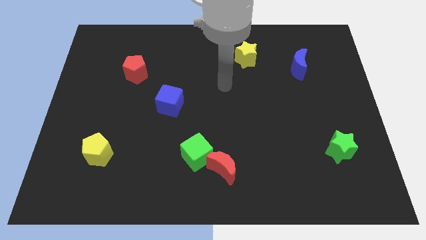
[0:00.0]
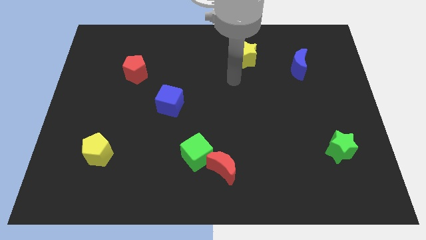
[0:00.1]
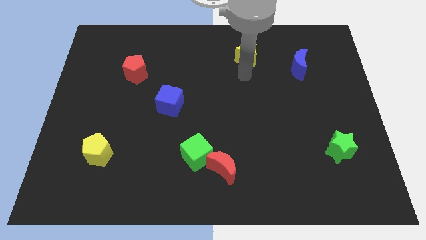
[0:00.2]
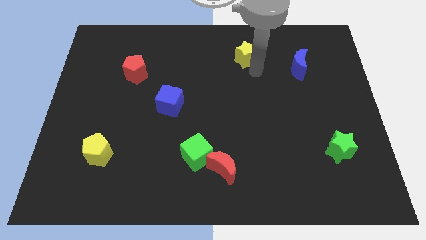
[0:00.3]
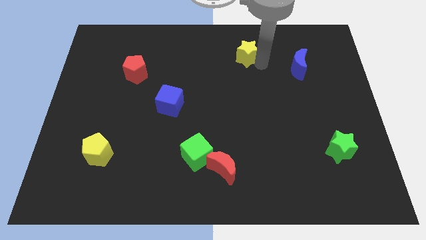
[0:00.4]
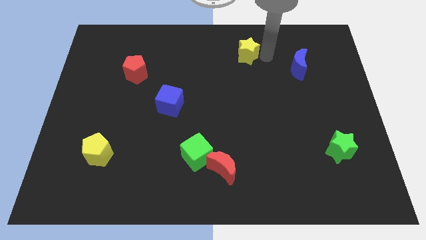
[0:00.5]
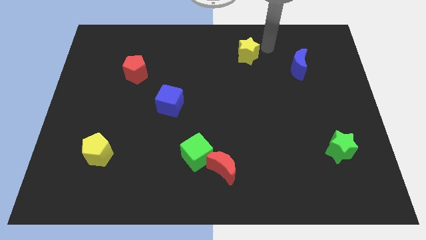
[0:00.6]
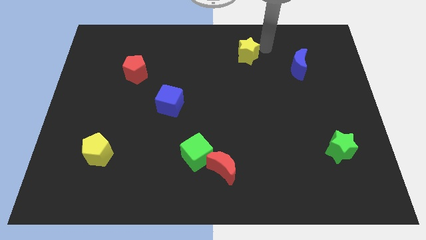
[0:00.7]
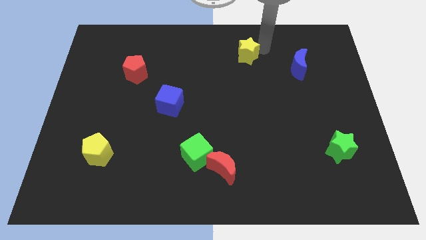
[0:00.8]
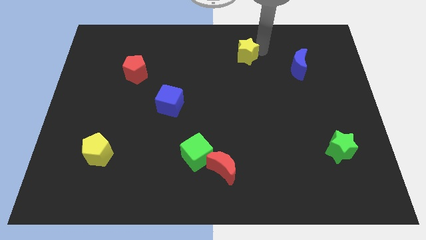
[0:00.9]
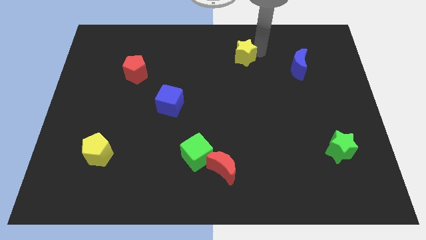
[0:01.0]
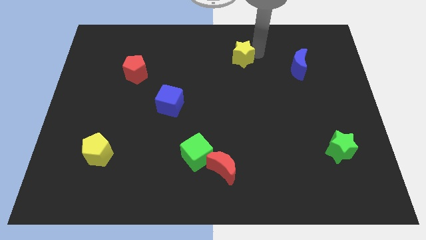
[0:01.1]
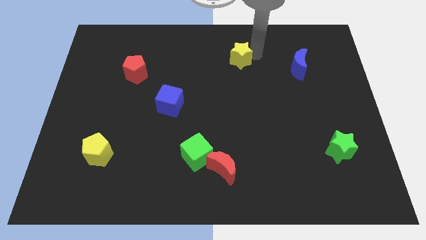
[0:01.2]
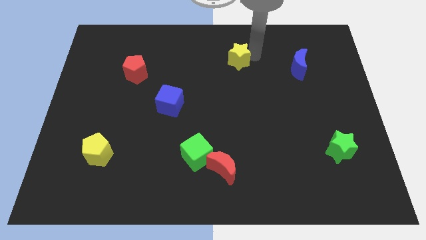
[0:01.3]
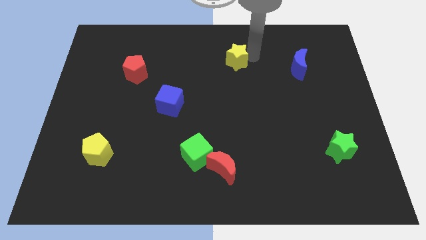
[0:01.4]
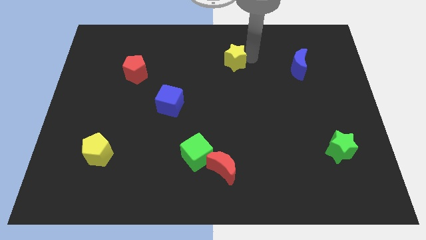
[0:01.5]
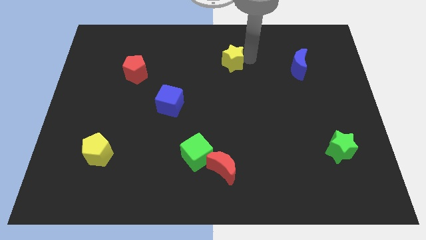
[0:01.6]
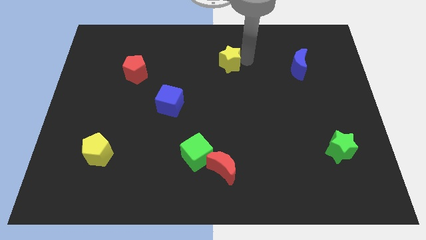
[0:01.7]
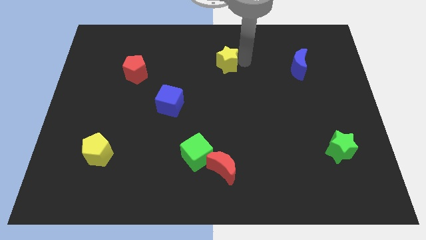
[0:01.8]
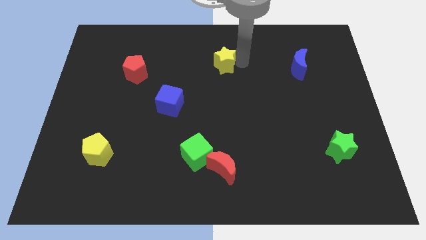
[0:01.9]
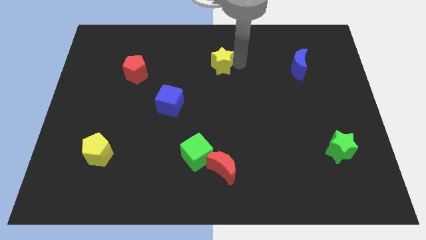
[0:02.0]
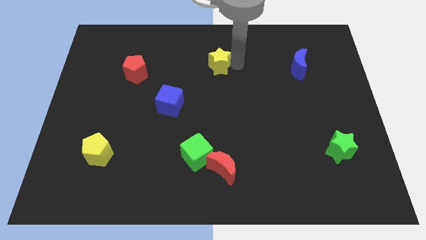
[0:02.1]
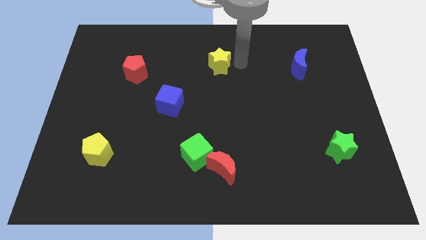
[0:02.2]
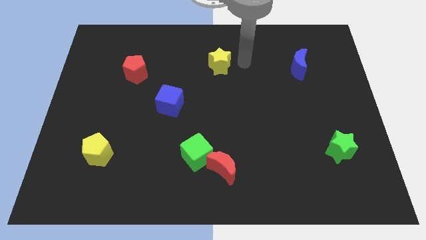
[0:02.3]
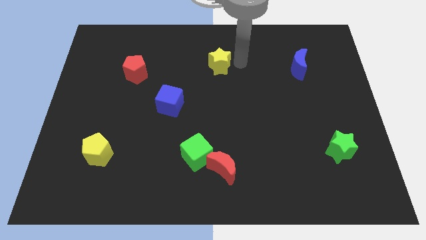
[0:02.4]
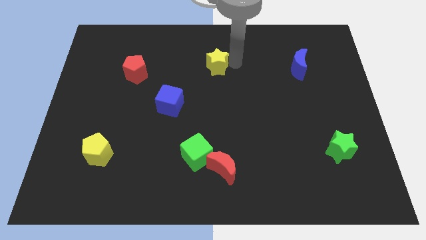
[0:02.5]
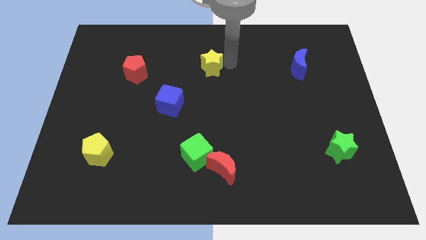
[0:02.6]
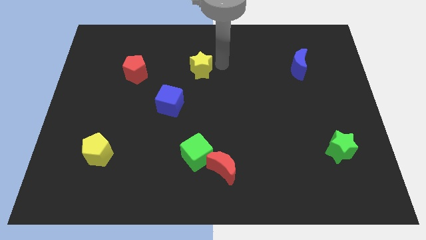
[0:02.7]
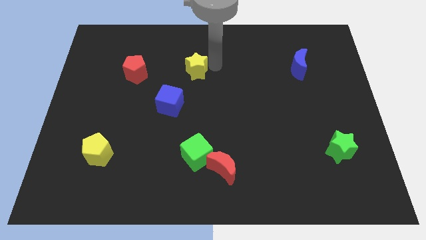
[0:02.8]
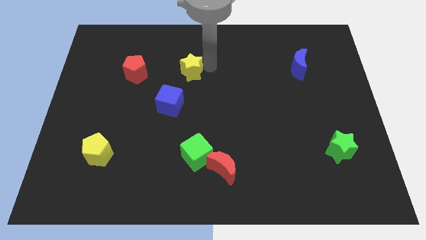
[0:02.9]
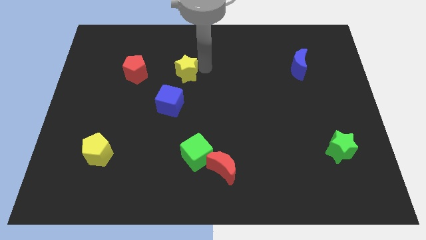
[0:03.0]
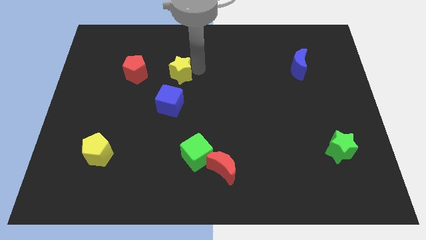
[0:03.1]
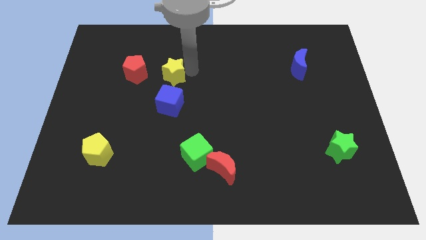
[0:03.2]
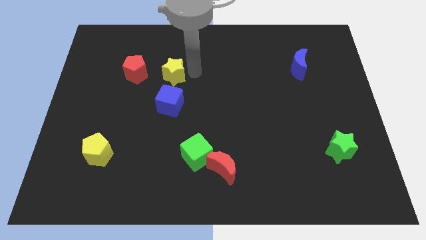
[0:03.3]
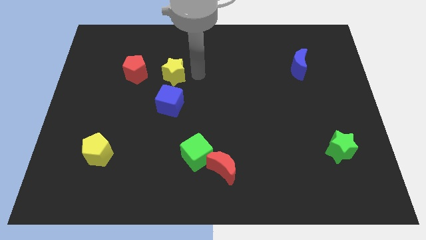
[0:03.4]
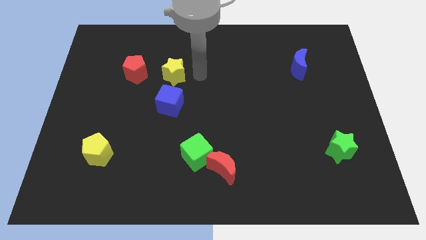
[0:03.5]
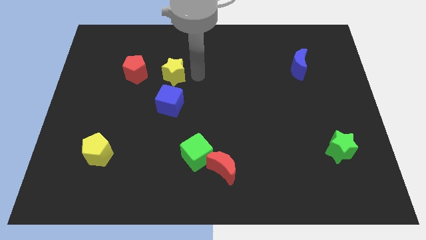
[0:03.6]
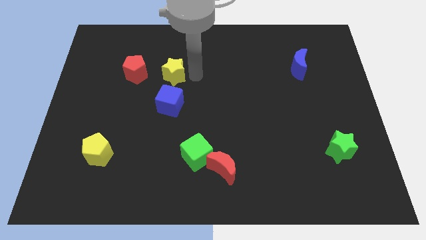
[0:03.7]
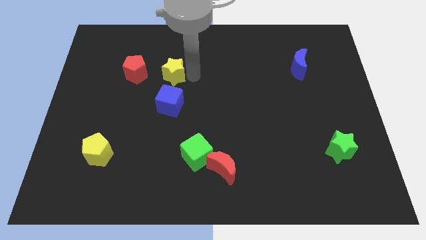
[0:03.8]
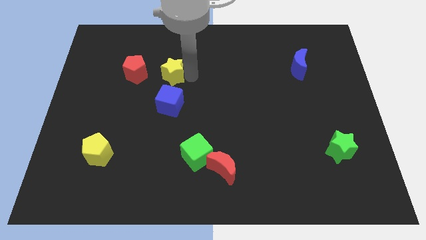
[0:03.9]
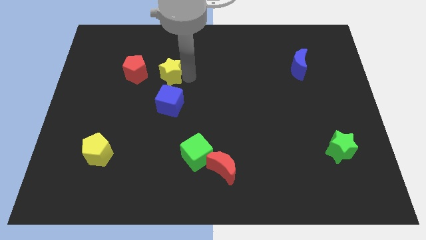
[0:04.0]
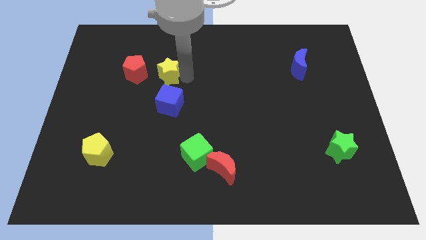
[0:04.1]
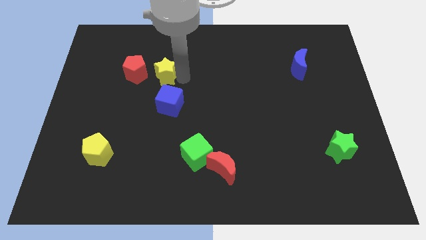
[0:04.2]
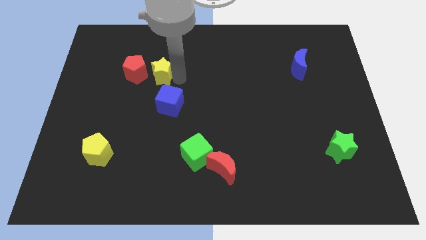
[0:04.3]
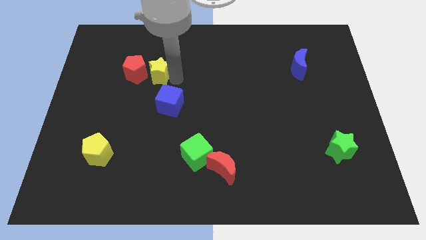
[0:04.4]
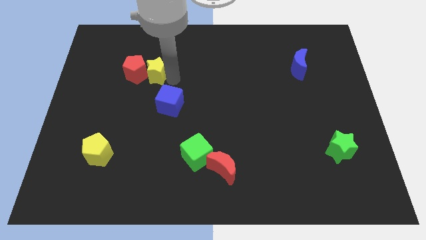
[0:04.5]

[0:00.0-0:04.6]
slide the yellow star next to the red pentagon

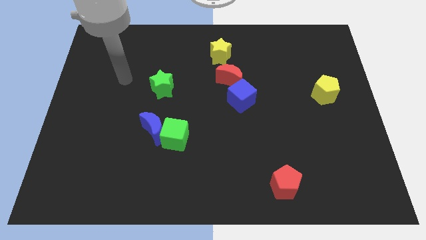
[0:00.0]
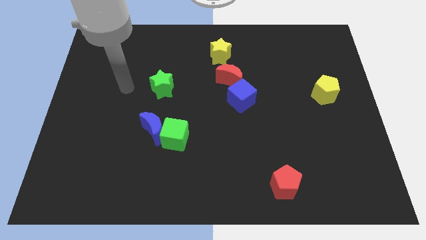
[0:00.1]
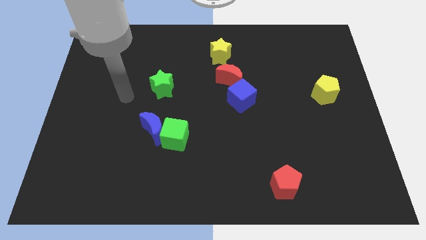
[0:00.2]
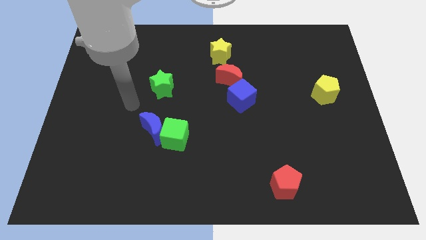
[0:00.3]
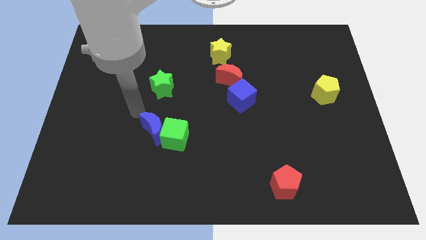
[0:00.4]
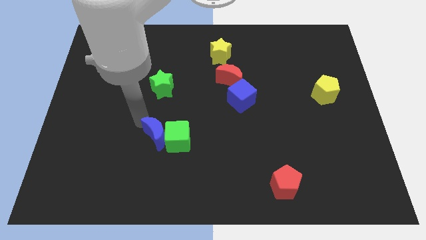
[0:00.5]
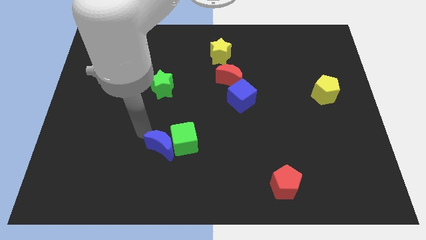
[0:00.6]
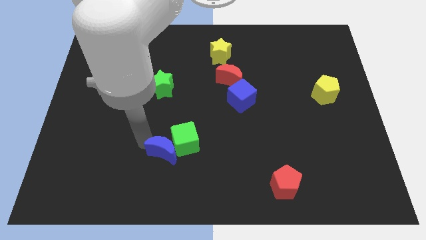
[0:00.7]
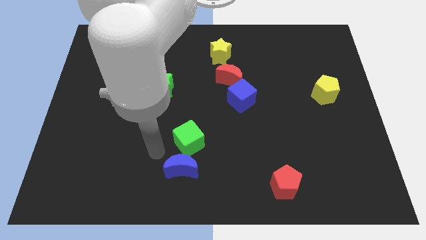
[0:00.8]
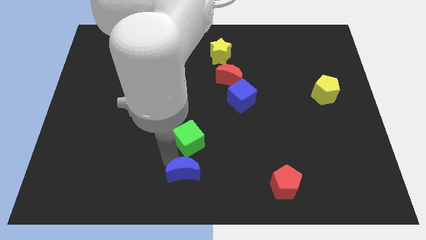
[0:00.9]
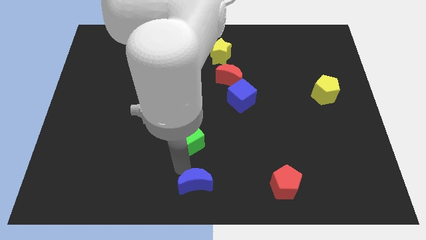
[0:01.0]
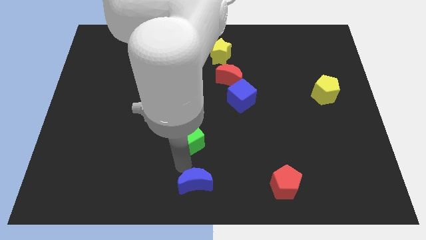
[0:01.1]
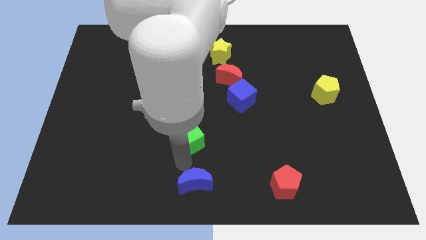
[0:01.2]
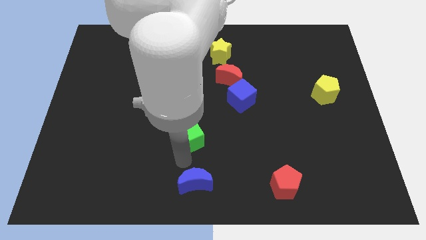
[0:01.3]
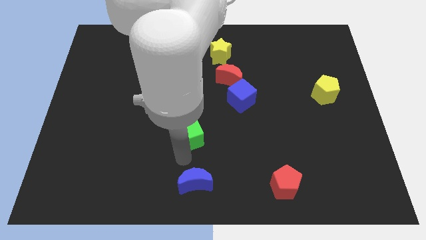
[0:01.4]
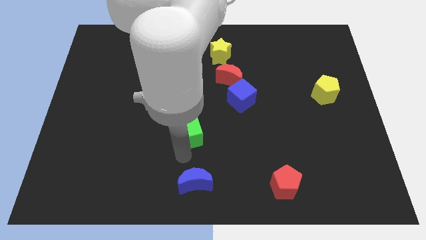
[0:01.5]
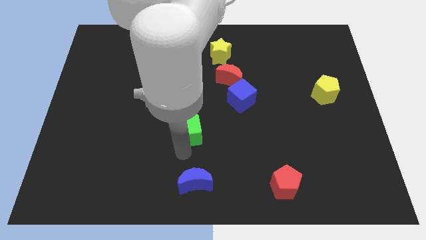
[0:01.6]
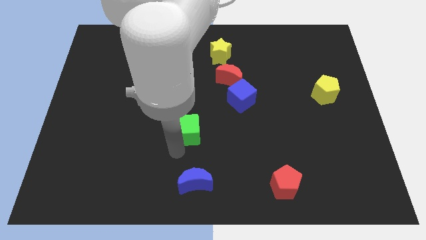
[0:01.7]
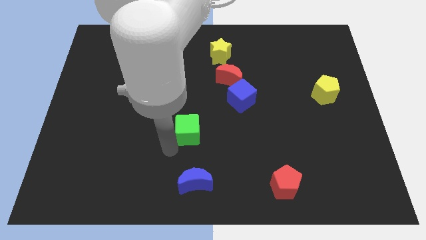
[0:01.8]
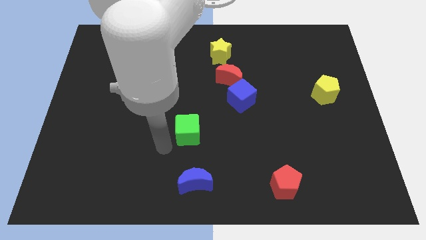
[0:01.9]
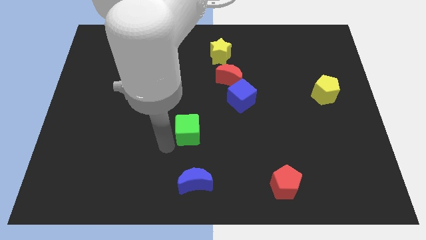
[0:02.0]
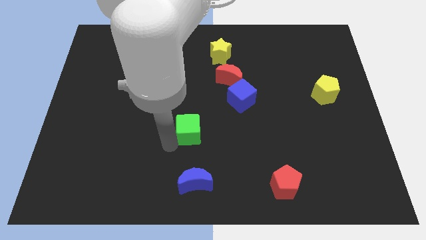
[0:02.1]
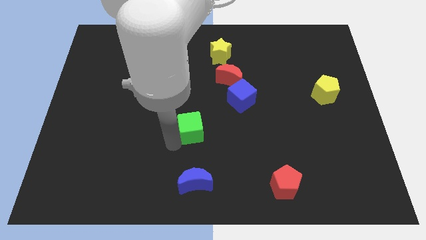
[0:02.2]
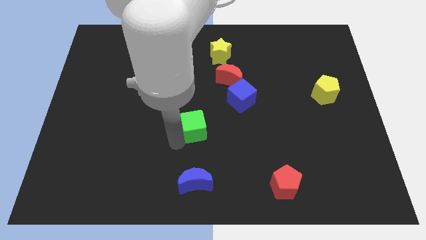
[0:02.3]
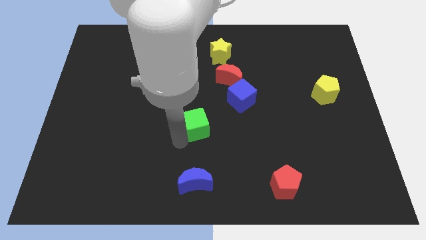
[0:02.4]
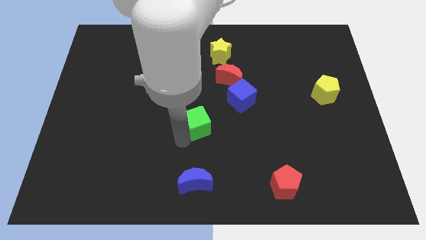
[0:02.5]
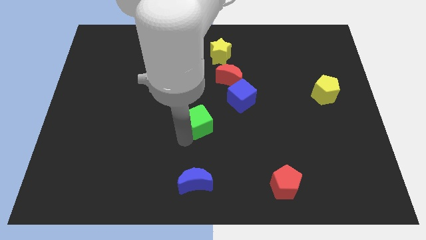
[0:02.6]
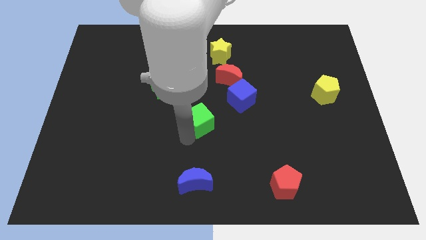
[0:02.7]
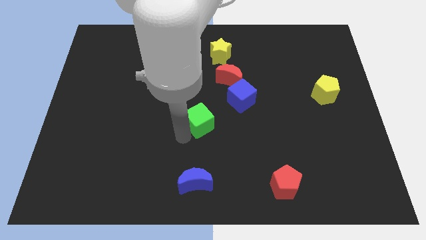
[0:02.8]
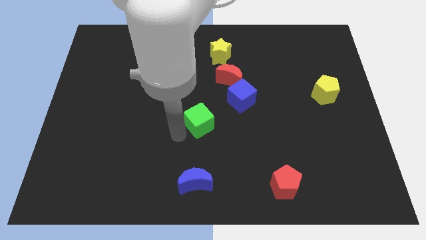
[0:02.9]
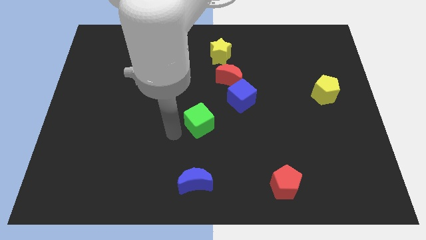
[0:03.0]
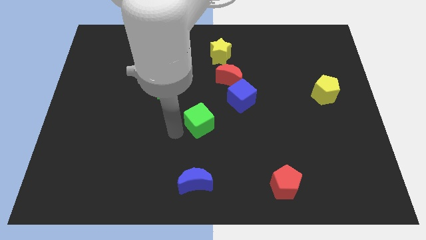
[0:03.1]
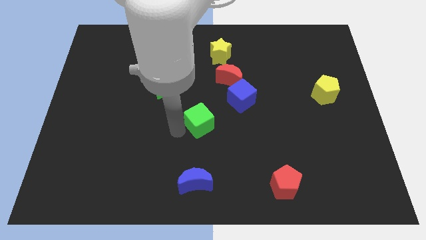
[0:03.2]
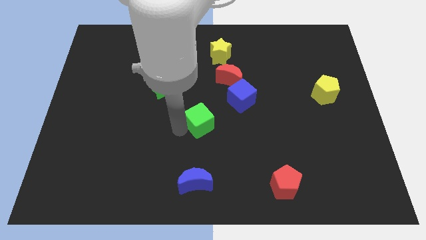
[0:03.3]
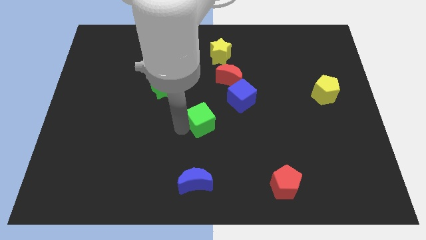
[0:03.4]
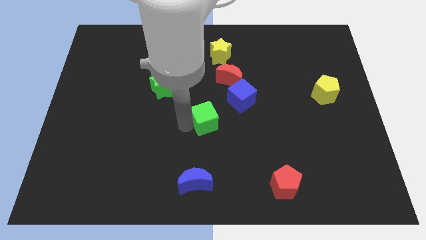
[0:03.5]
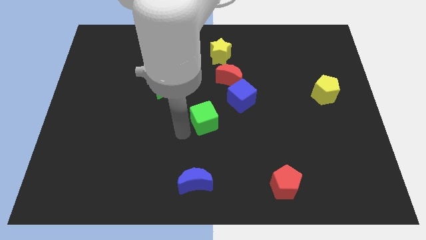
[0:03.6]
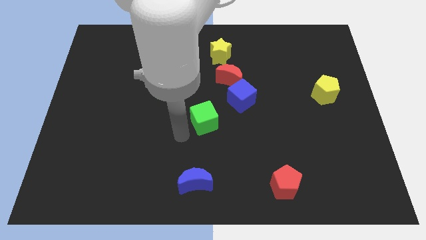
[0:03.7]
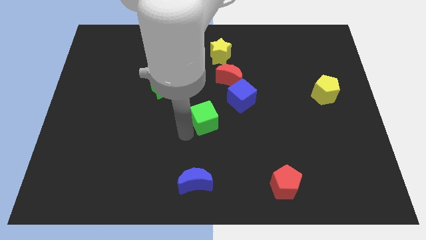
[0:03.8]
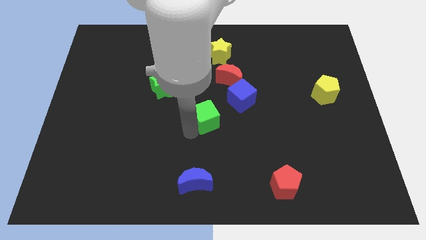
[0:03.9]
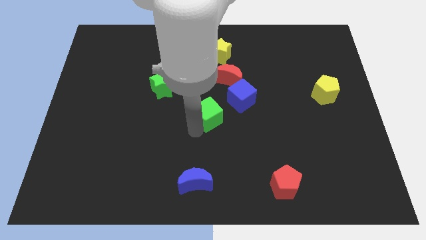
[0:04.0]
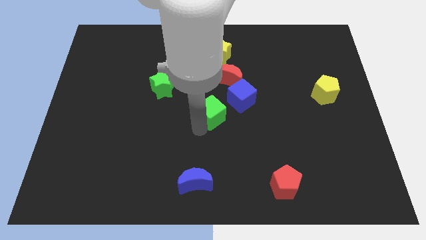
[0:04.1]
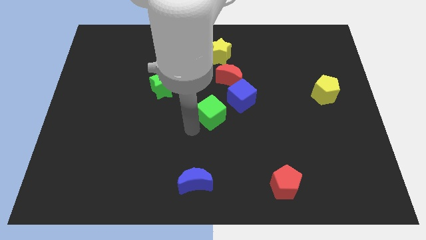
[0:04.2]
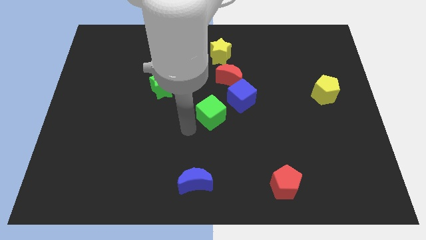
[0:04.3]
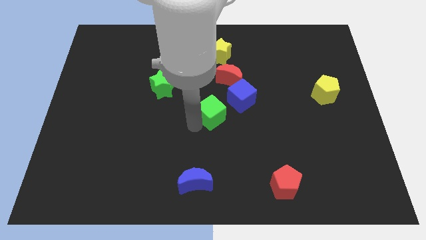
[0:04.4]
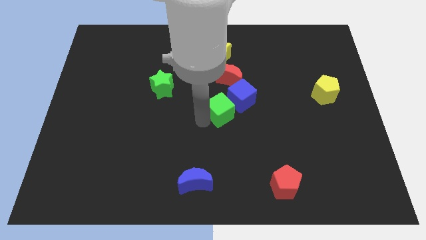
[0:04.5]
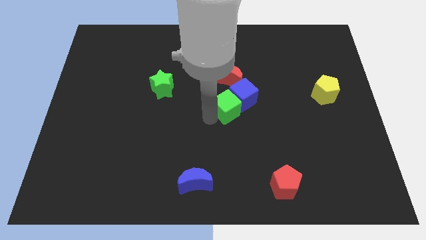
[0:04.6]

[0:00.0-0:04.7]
push the green cube towards the blue cube
